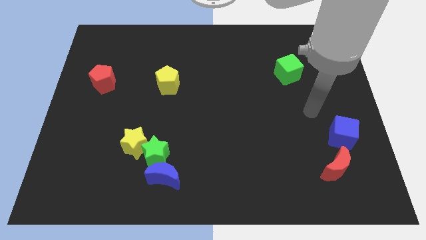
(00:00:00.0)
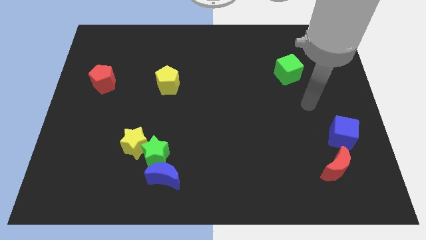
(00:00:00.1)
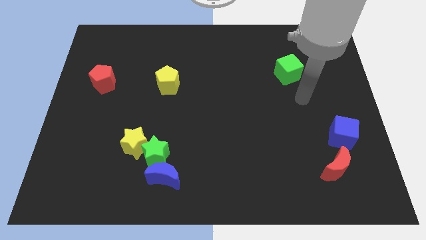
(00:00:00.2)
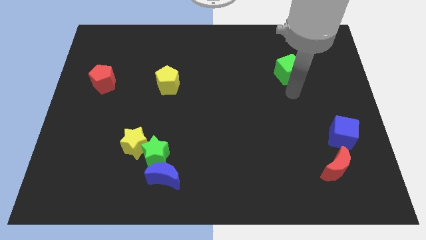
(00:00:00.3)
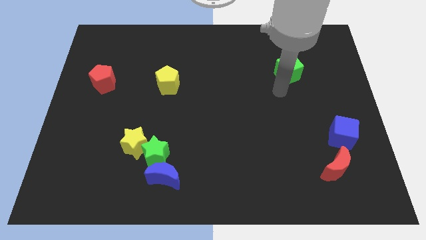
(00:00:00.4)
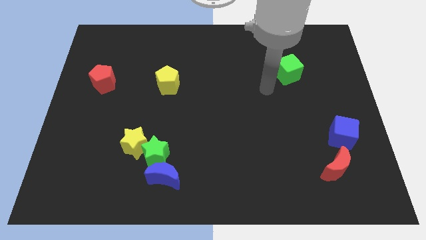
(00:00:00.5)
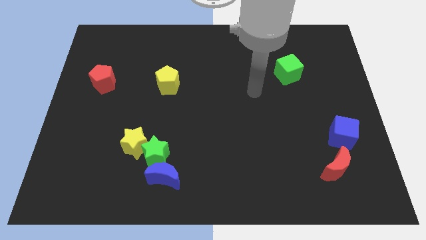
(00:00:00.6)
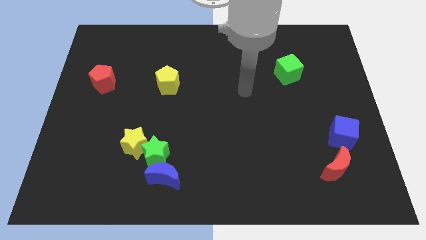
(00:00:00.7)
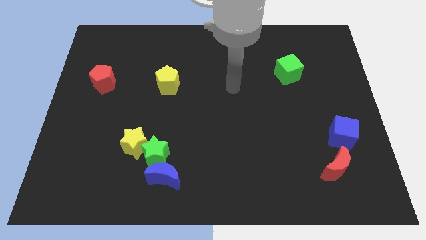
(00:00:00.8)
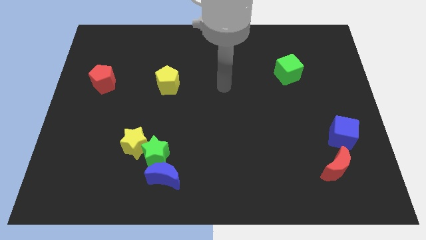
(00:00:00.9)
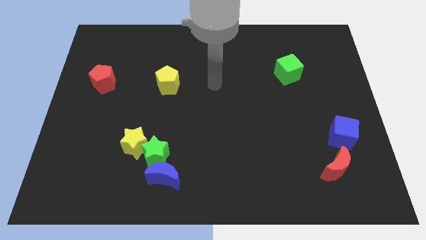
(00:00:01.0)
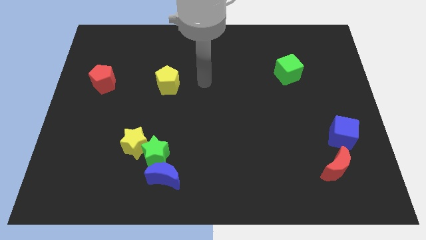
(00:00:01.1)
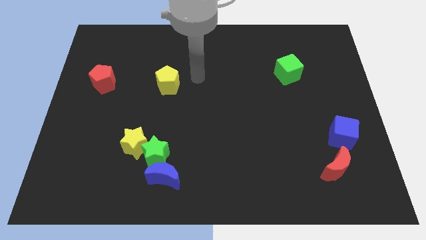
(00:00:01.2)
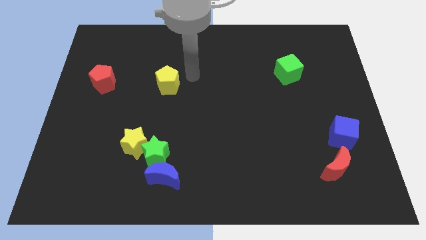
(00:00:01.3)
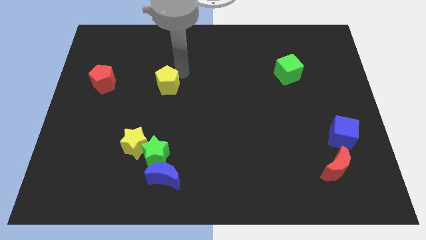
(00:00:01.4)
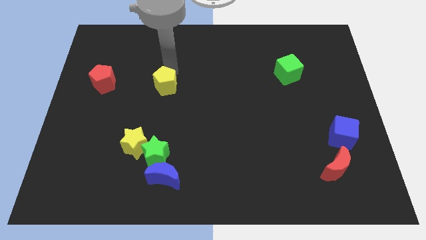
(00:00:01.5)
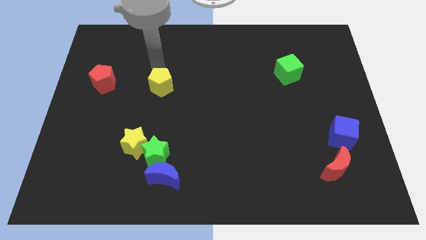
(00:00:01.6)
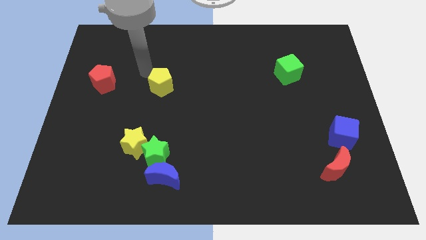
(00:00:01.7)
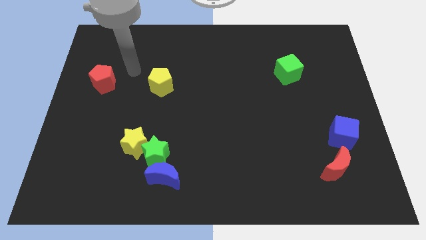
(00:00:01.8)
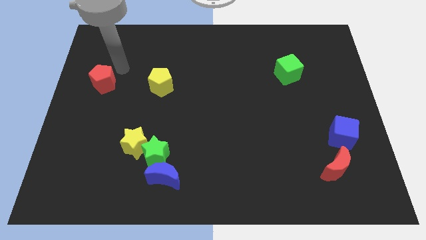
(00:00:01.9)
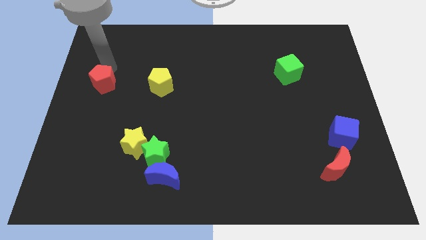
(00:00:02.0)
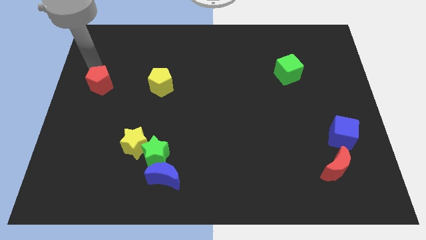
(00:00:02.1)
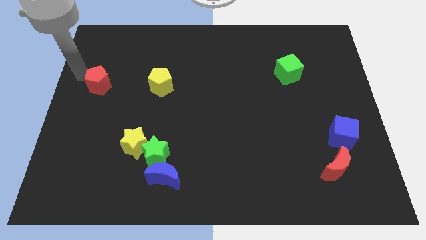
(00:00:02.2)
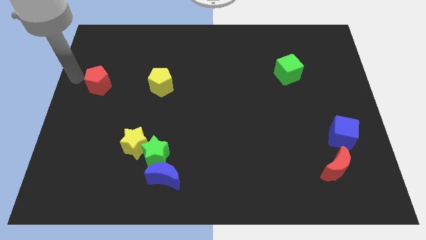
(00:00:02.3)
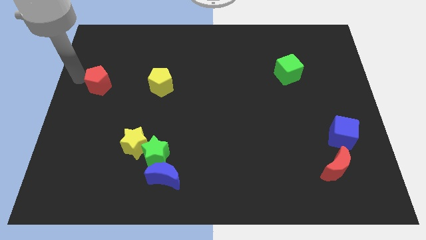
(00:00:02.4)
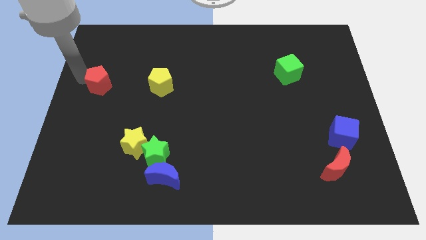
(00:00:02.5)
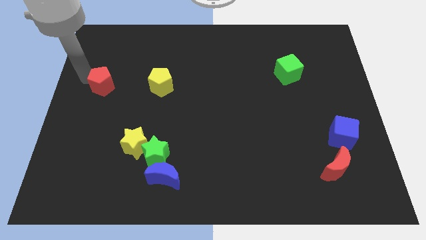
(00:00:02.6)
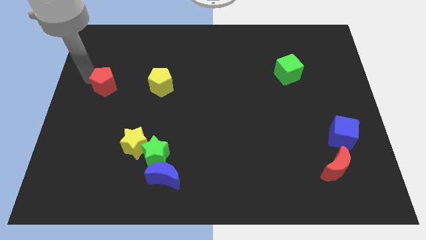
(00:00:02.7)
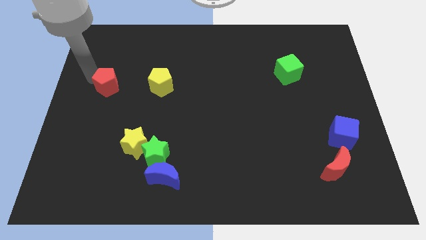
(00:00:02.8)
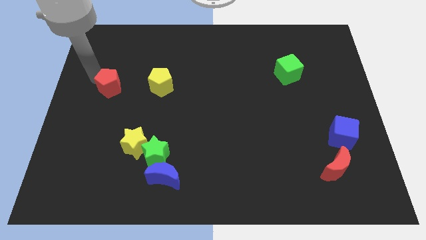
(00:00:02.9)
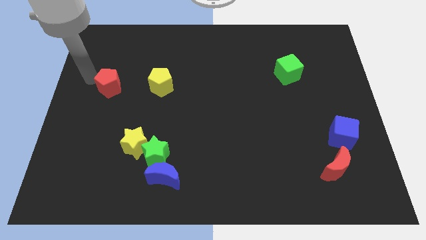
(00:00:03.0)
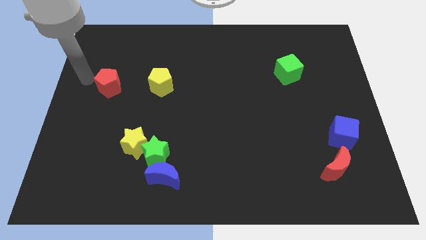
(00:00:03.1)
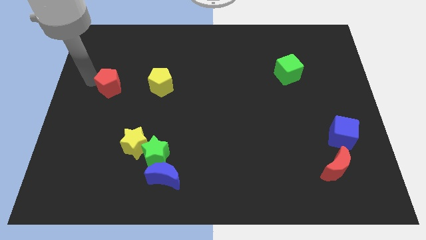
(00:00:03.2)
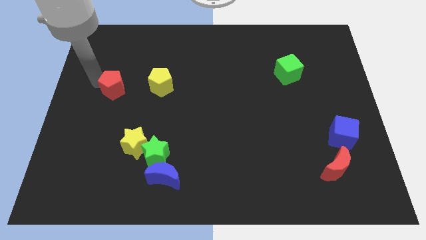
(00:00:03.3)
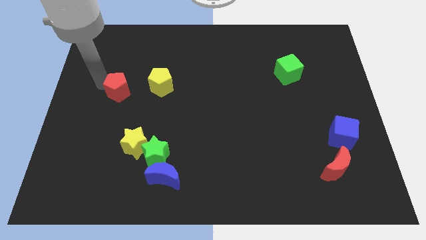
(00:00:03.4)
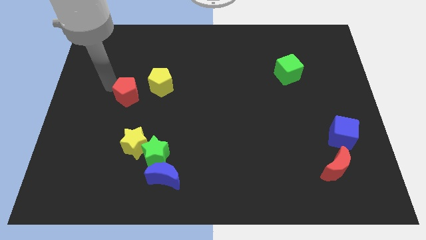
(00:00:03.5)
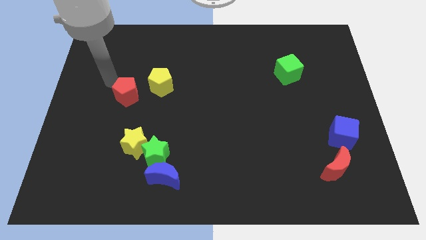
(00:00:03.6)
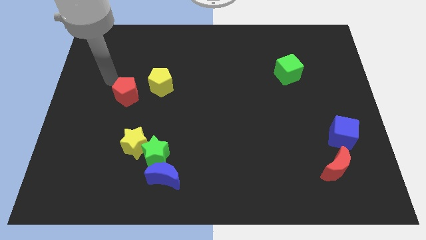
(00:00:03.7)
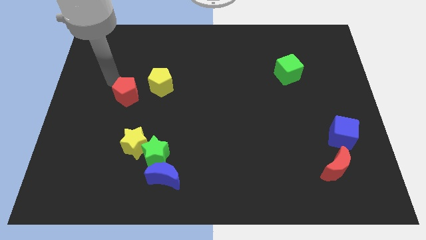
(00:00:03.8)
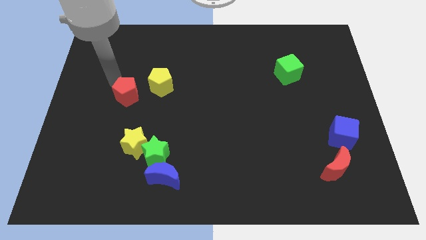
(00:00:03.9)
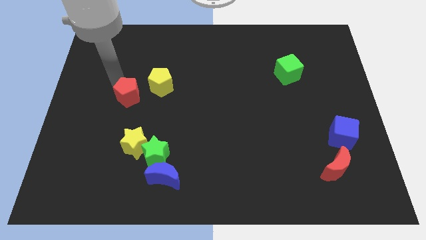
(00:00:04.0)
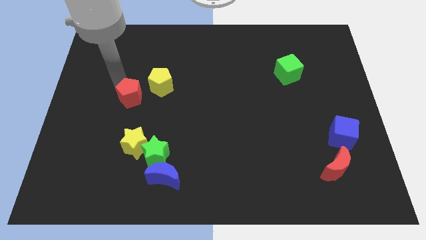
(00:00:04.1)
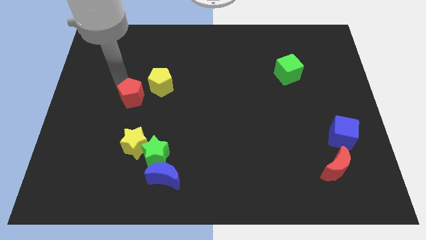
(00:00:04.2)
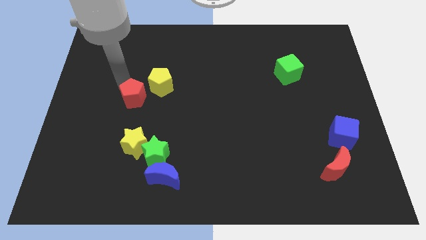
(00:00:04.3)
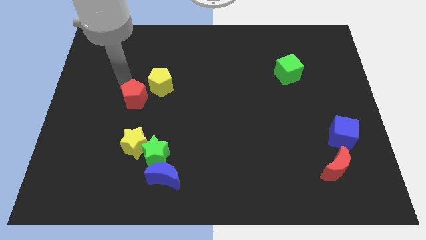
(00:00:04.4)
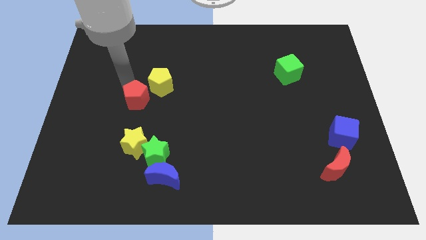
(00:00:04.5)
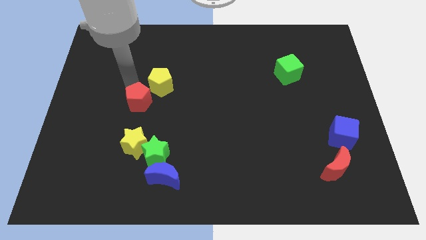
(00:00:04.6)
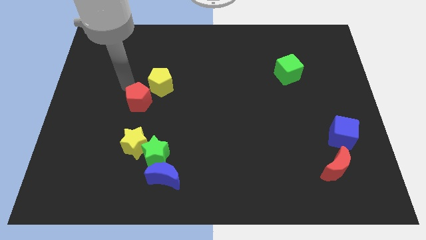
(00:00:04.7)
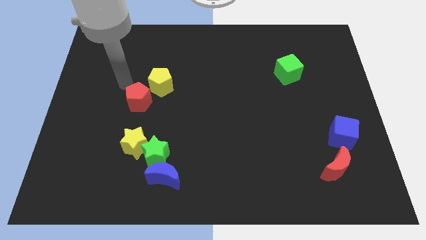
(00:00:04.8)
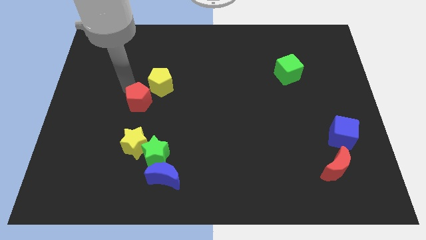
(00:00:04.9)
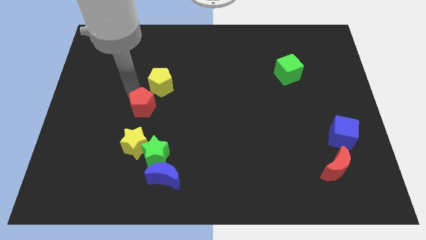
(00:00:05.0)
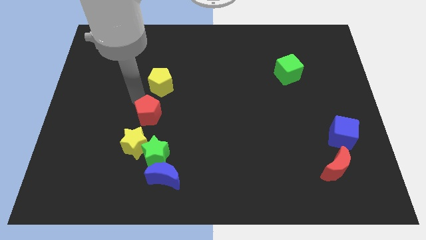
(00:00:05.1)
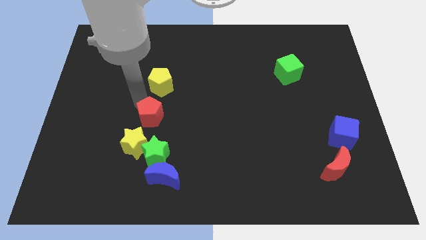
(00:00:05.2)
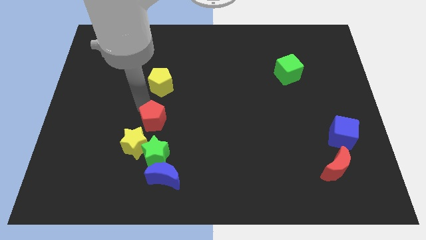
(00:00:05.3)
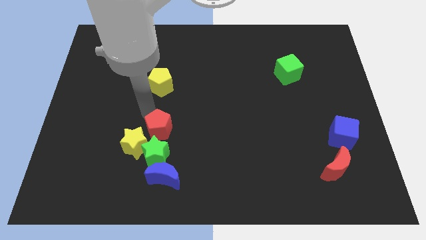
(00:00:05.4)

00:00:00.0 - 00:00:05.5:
push the red pentagon downwards and then to the right

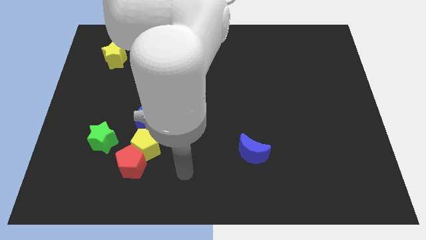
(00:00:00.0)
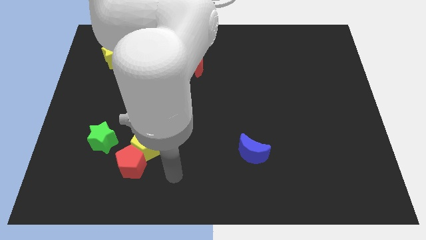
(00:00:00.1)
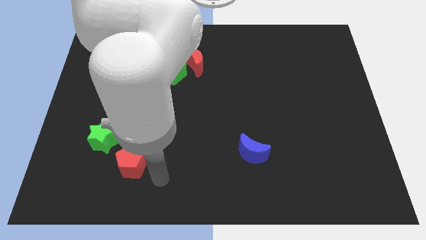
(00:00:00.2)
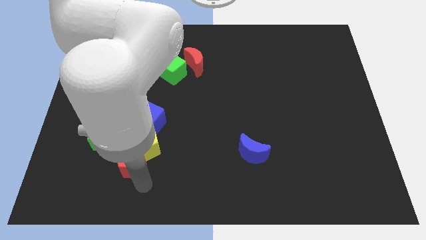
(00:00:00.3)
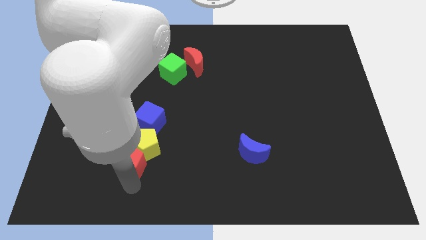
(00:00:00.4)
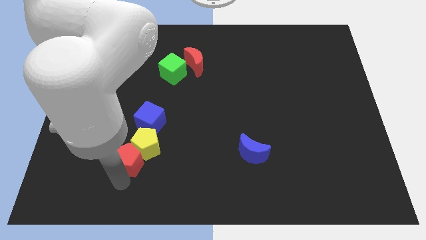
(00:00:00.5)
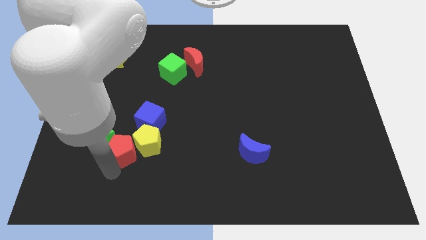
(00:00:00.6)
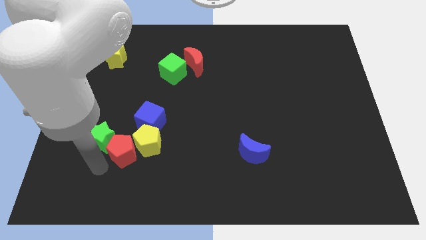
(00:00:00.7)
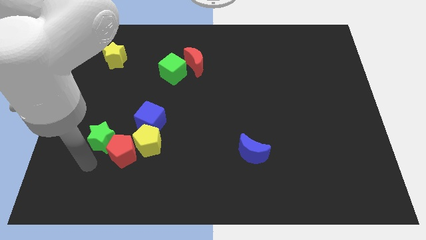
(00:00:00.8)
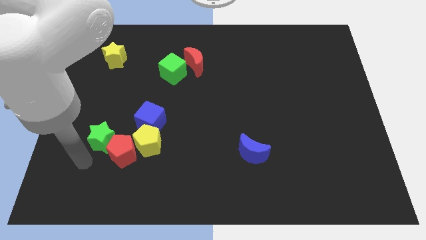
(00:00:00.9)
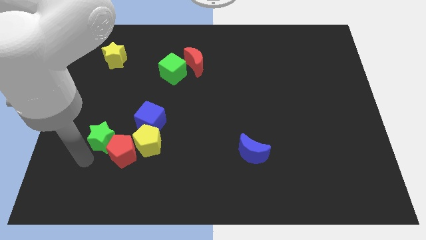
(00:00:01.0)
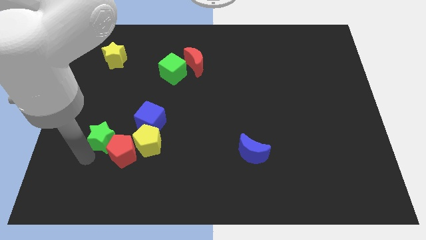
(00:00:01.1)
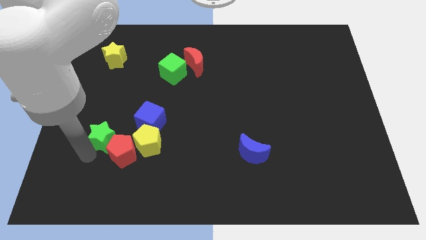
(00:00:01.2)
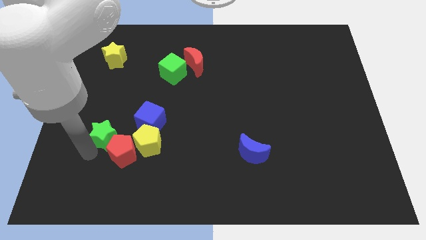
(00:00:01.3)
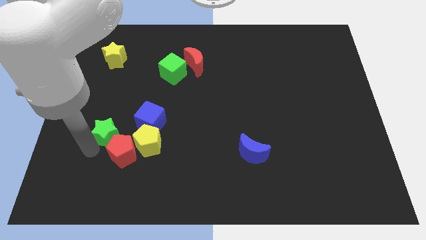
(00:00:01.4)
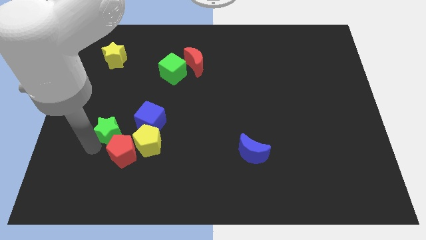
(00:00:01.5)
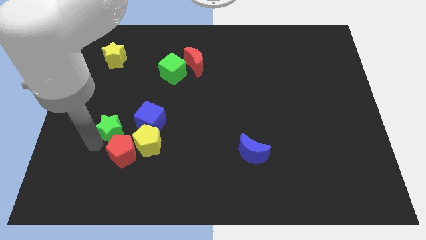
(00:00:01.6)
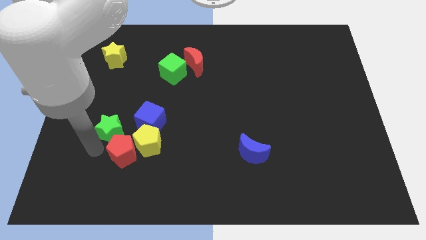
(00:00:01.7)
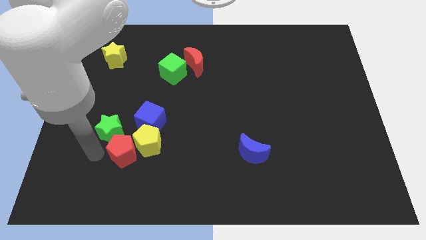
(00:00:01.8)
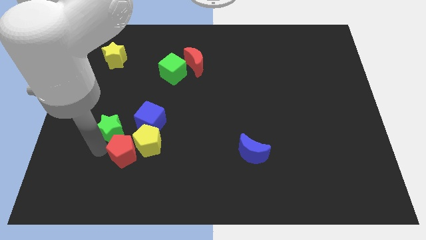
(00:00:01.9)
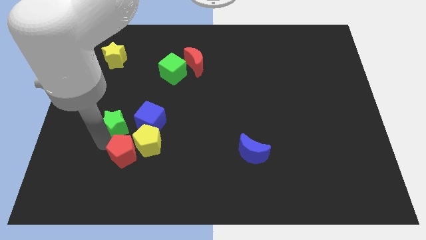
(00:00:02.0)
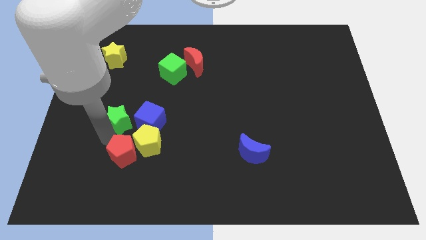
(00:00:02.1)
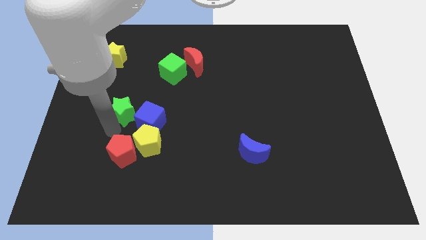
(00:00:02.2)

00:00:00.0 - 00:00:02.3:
push the green star slightly diagonally upwards and right
